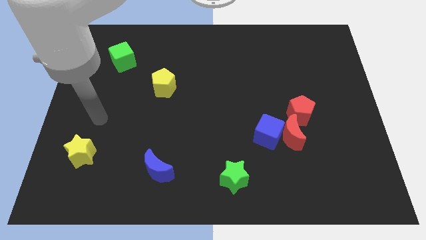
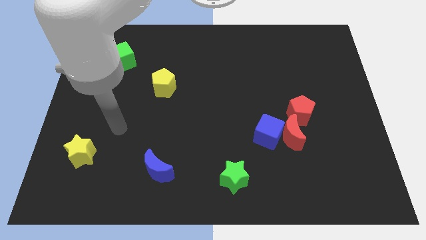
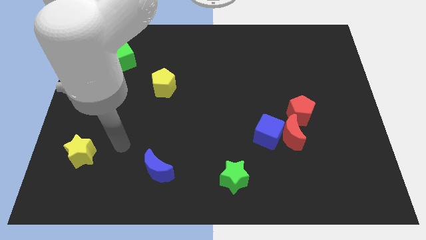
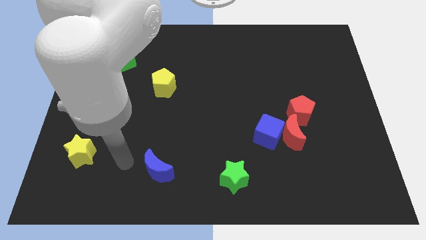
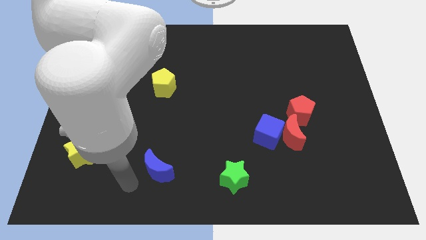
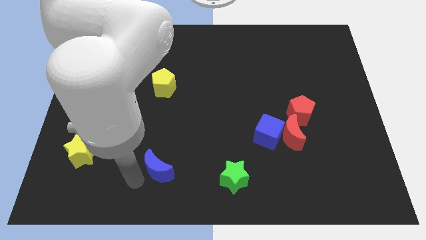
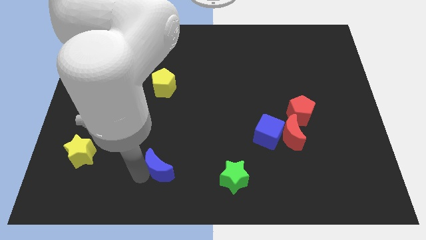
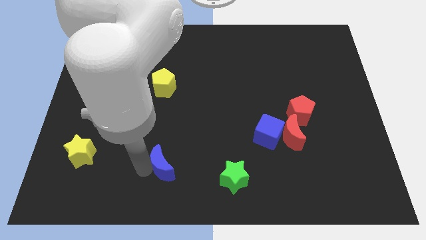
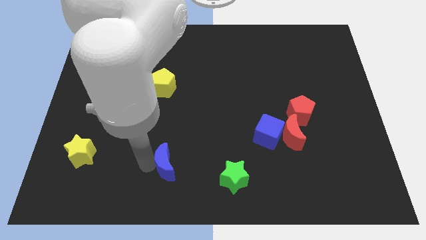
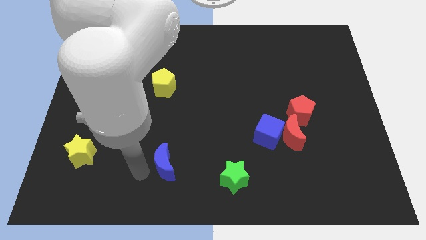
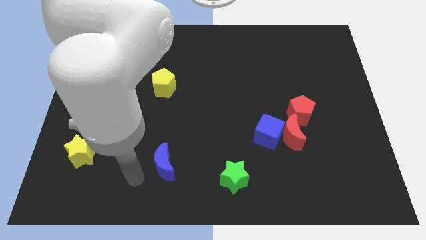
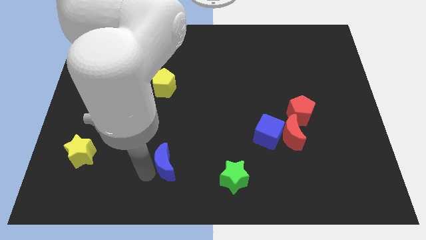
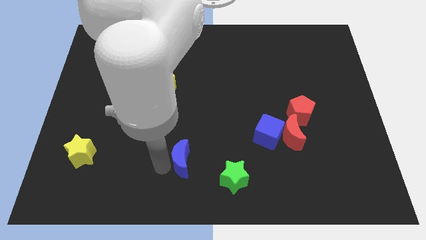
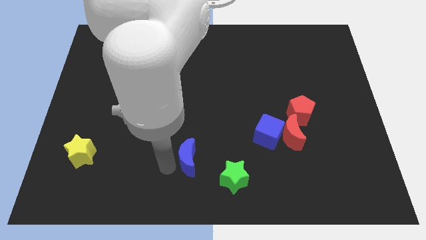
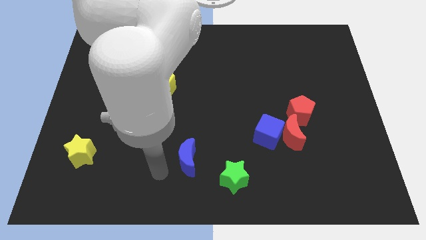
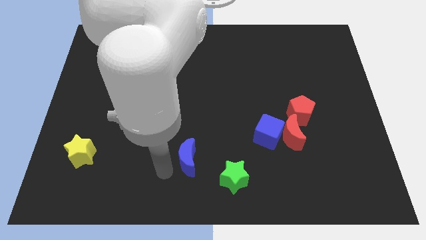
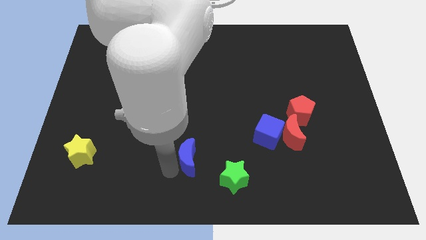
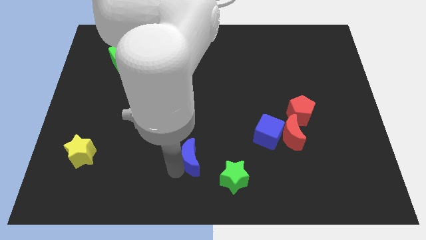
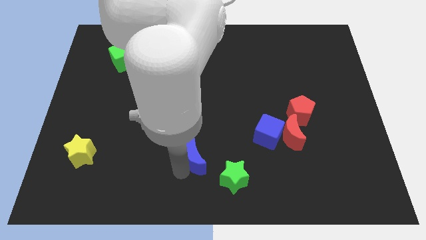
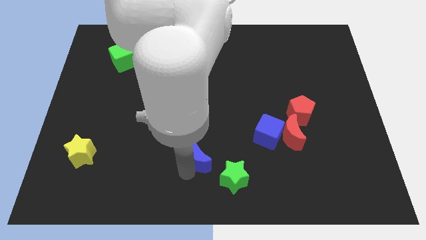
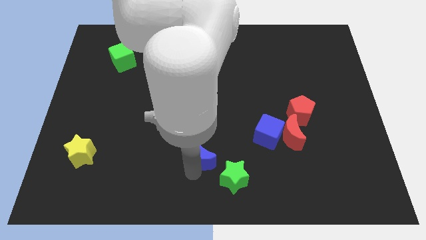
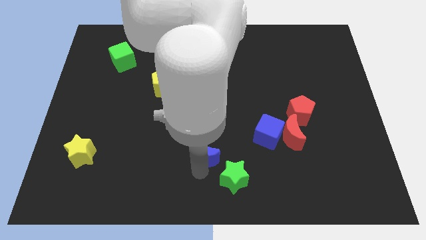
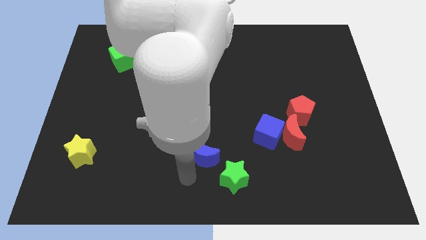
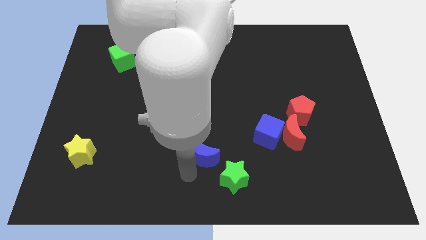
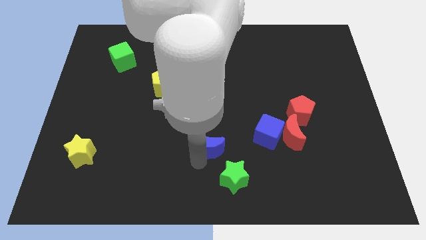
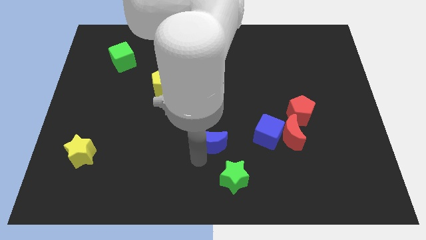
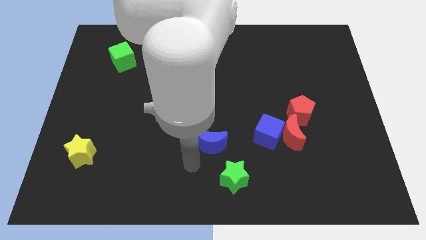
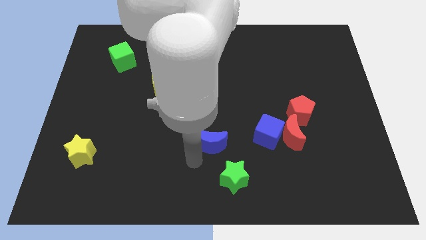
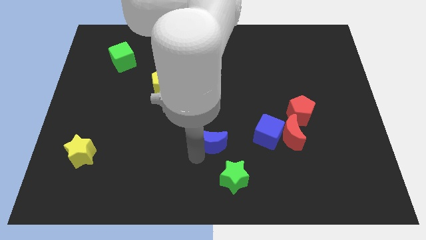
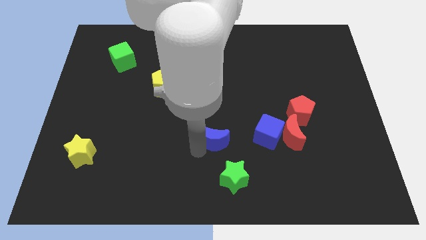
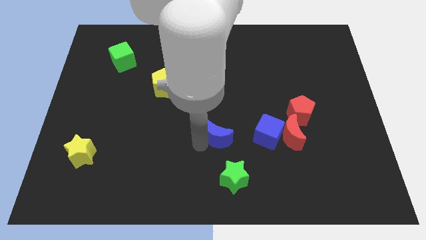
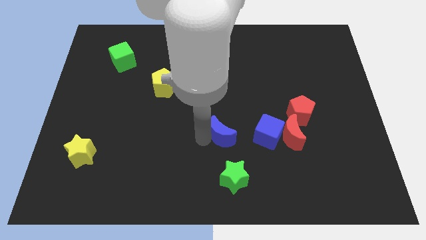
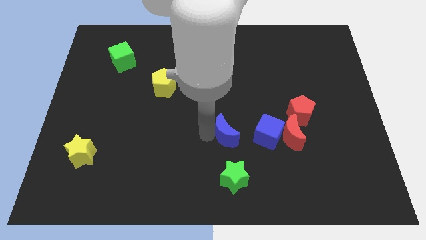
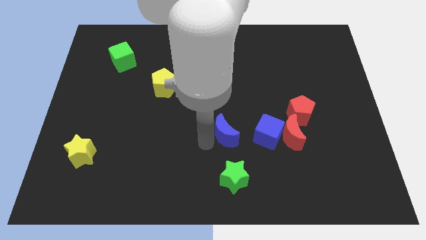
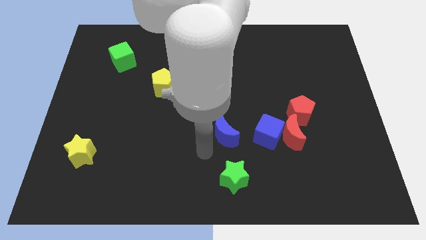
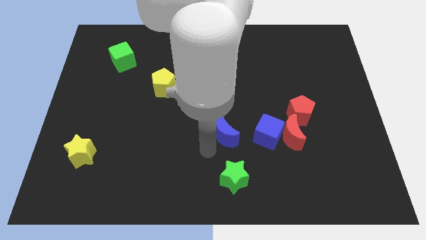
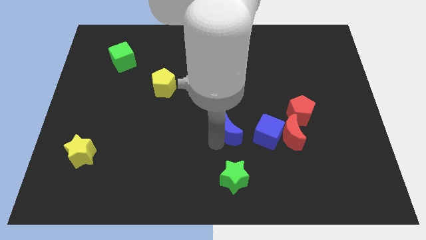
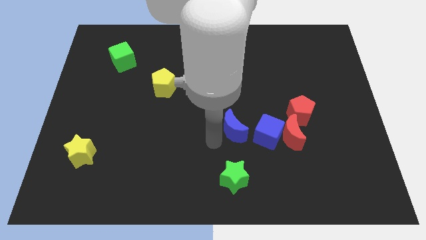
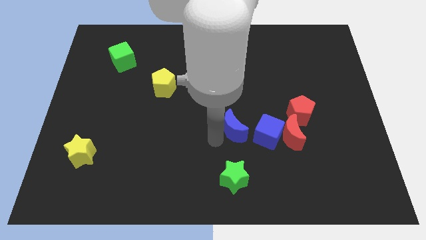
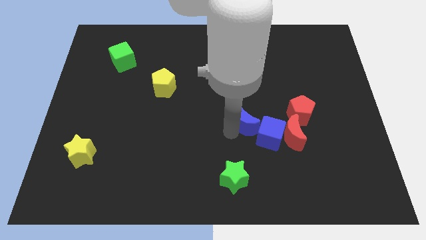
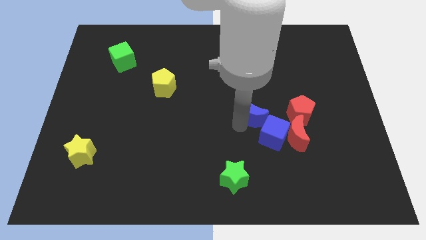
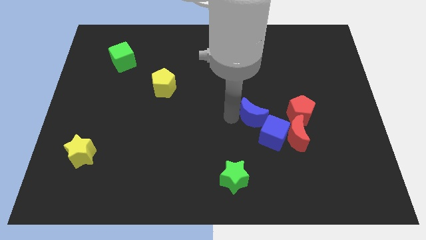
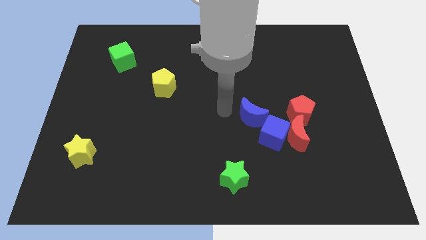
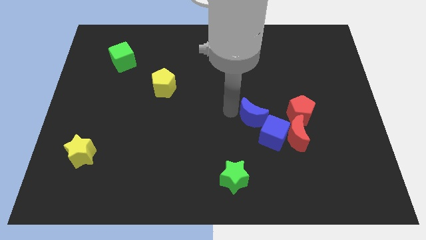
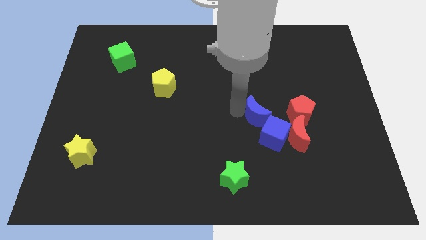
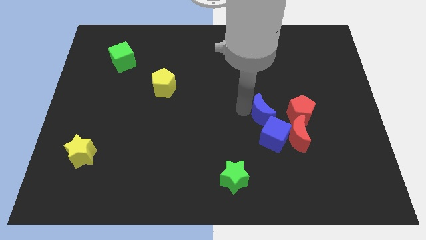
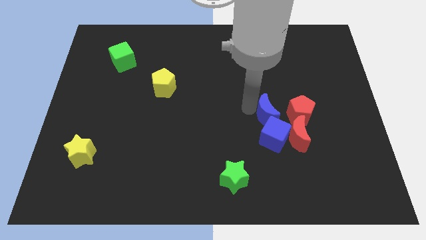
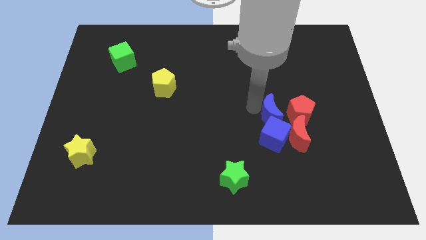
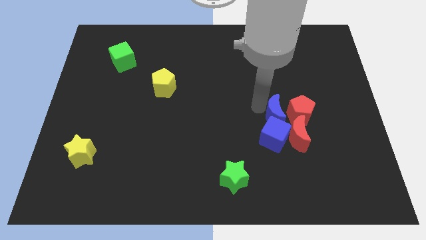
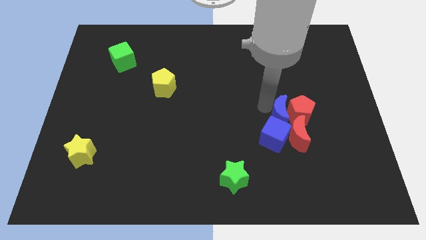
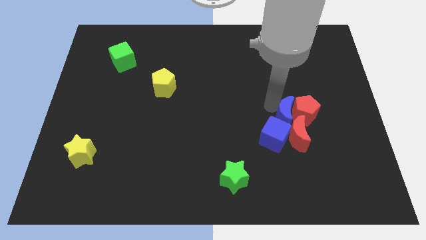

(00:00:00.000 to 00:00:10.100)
slide the blue moon next to the red moon
